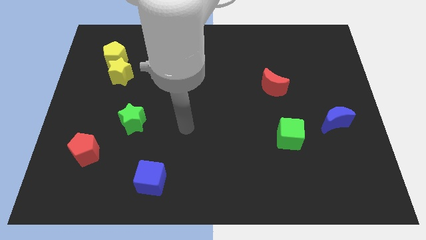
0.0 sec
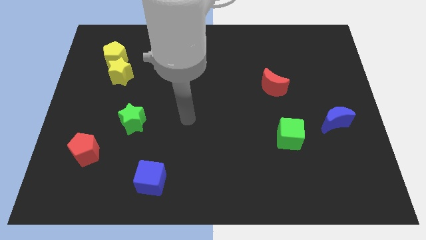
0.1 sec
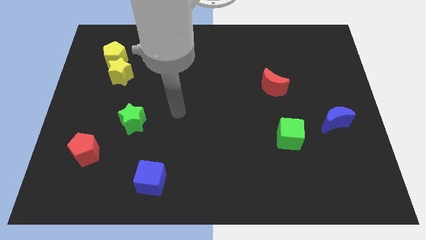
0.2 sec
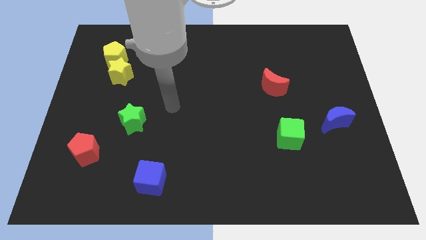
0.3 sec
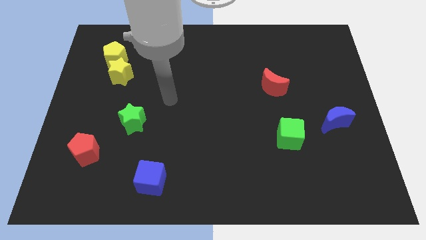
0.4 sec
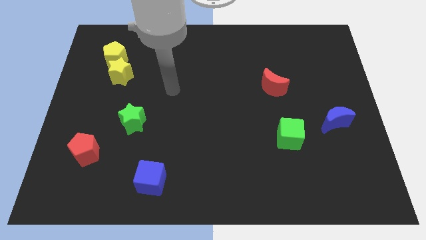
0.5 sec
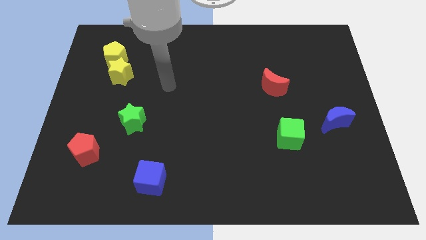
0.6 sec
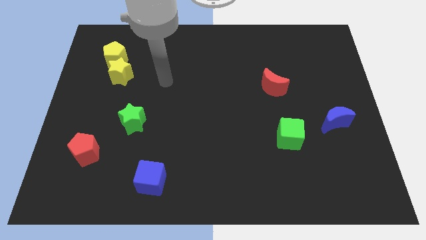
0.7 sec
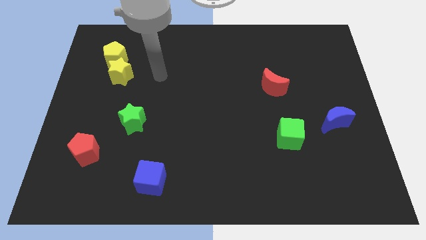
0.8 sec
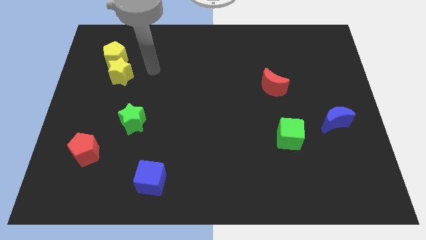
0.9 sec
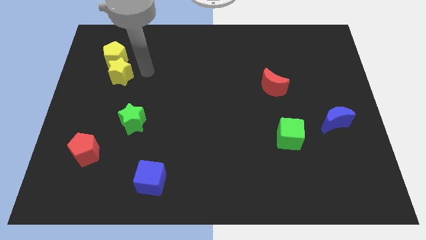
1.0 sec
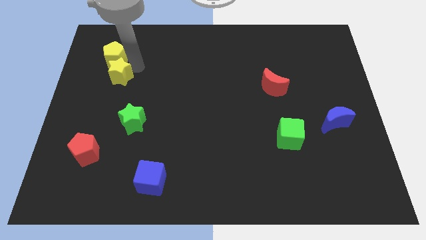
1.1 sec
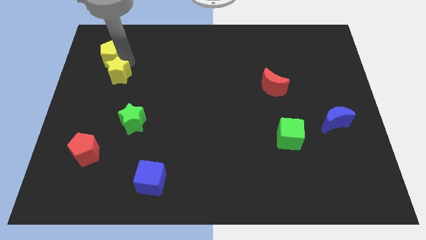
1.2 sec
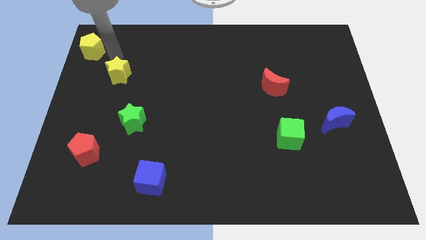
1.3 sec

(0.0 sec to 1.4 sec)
pull the yellow star apart from the yellow pentagon

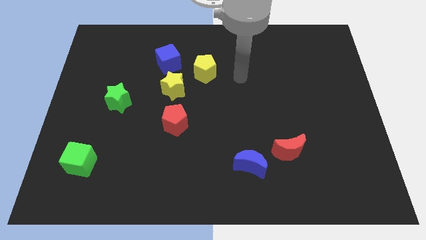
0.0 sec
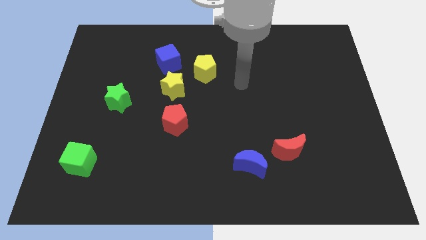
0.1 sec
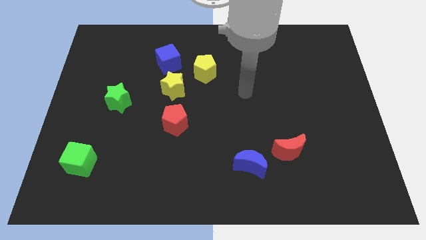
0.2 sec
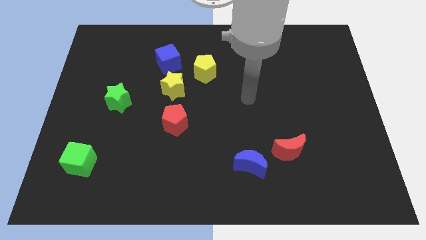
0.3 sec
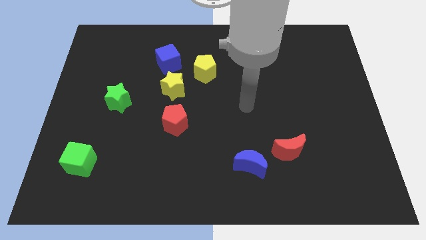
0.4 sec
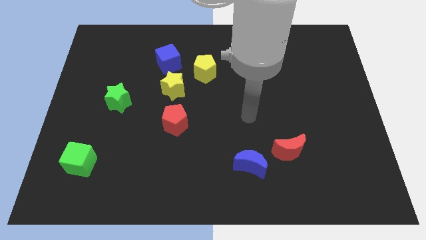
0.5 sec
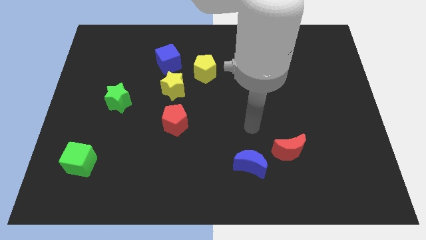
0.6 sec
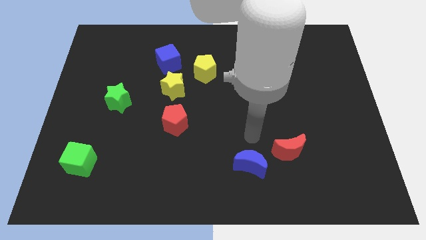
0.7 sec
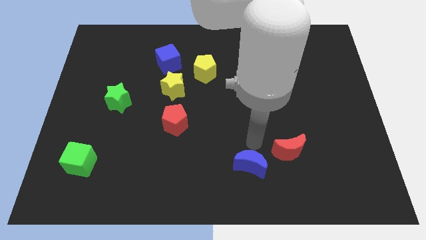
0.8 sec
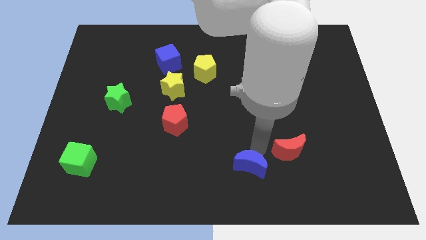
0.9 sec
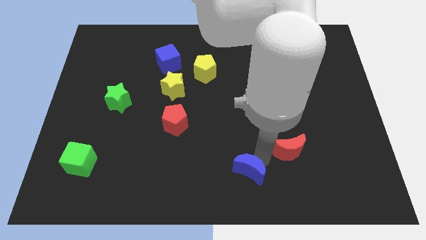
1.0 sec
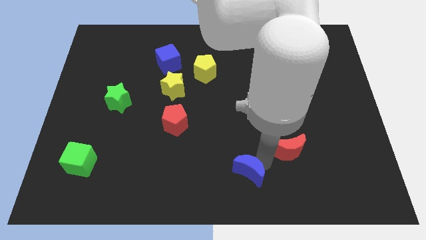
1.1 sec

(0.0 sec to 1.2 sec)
separate the red moon from the blue moon

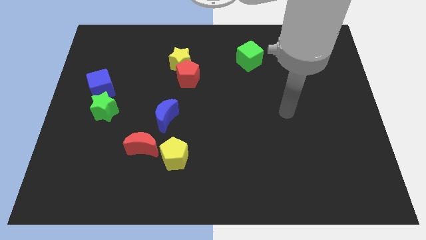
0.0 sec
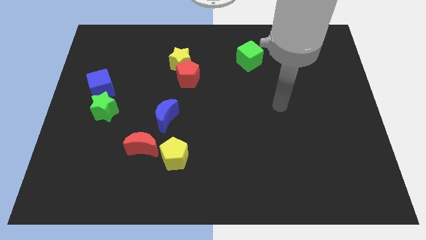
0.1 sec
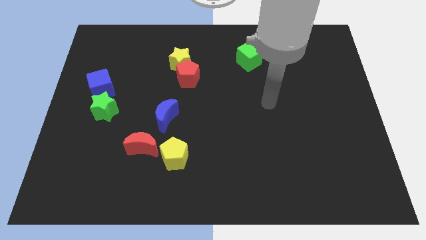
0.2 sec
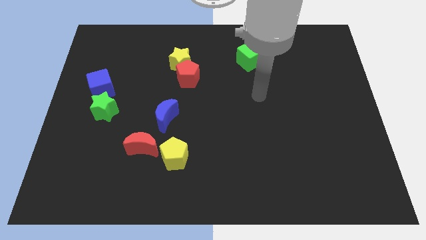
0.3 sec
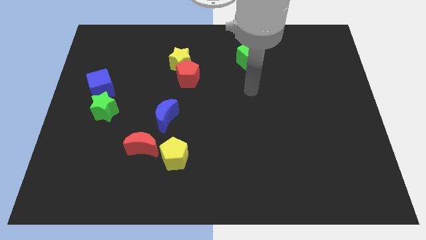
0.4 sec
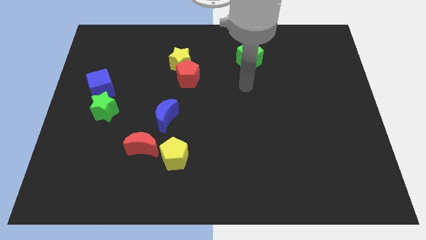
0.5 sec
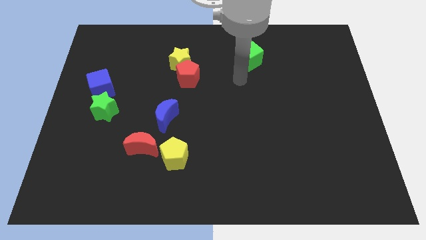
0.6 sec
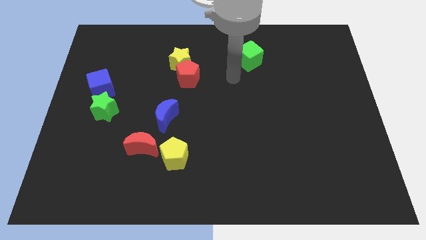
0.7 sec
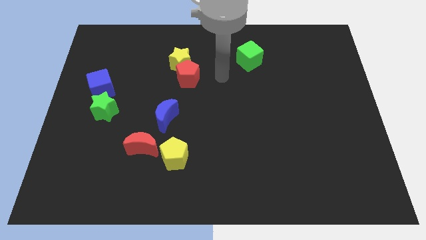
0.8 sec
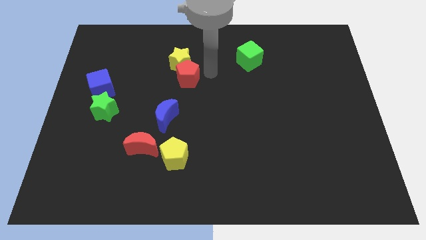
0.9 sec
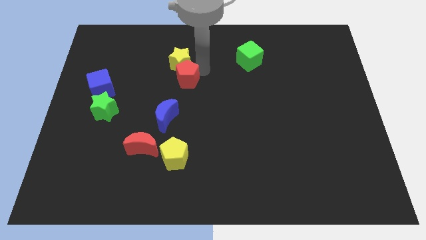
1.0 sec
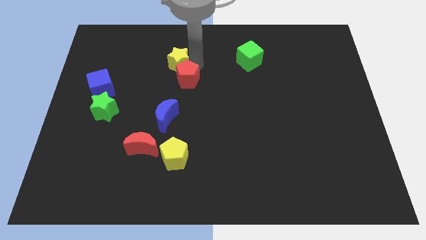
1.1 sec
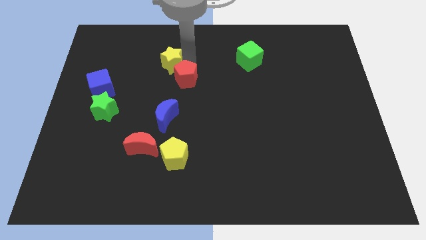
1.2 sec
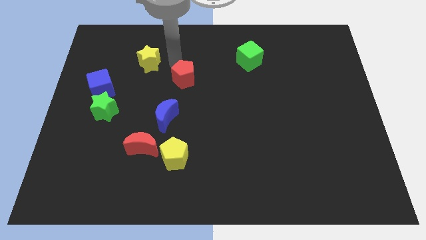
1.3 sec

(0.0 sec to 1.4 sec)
pull the red pentagon apart from the yellow star

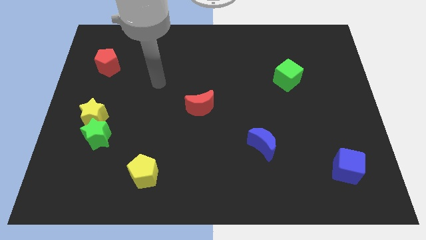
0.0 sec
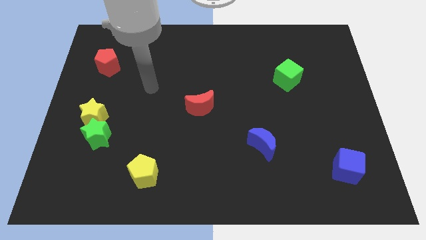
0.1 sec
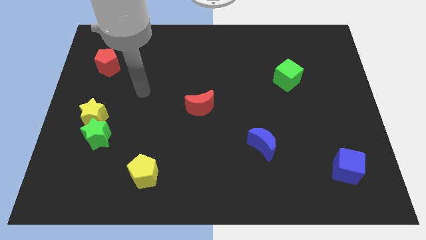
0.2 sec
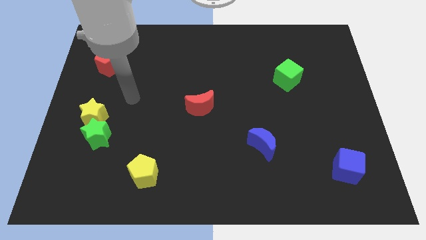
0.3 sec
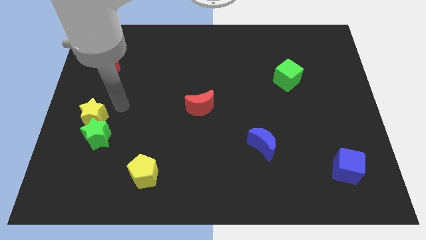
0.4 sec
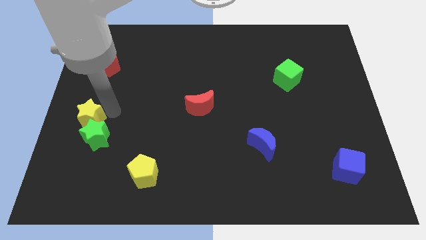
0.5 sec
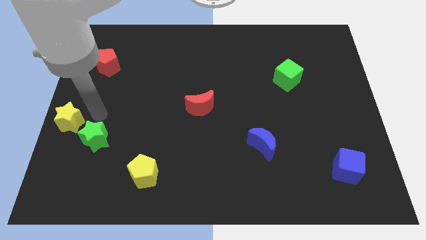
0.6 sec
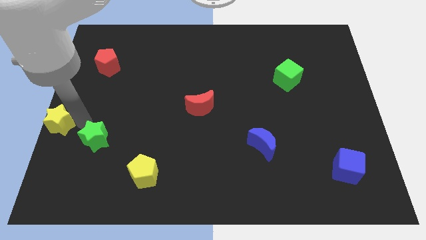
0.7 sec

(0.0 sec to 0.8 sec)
move the green star away from the yellow star

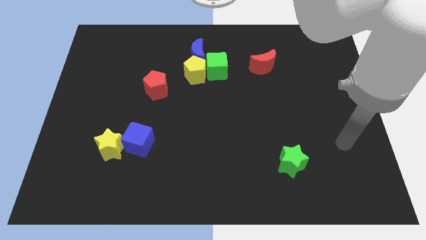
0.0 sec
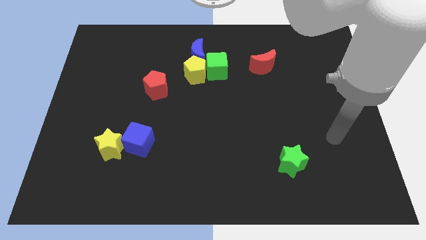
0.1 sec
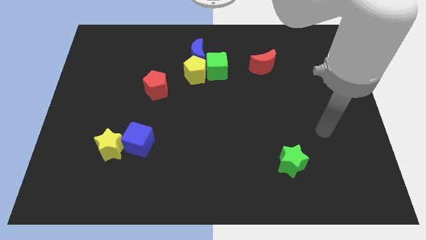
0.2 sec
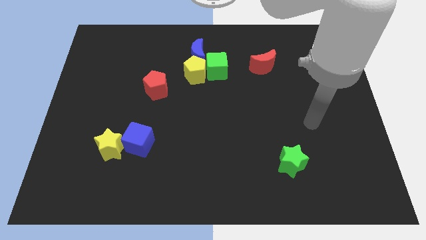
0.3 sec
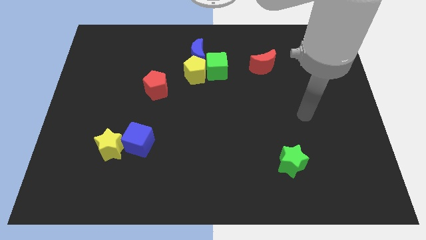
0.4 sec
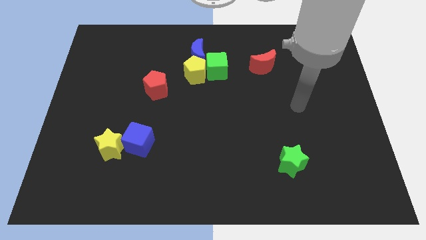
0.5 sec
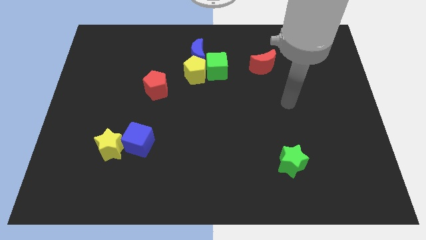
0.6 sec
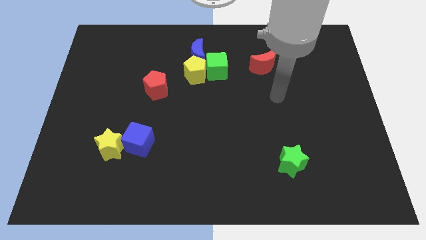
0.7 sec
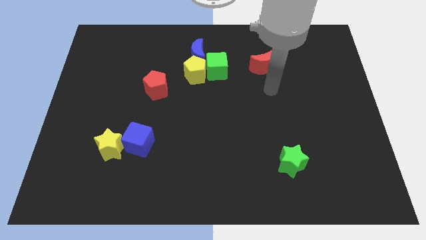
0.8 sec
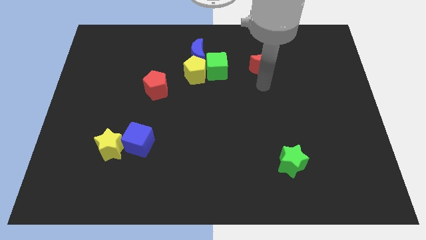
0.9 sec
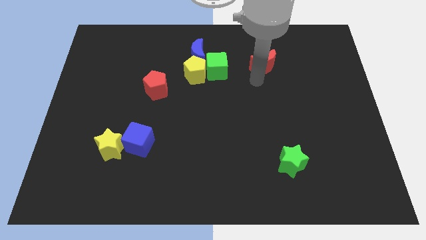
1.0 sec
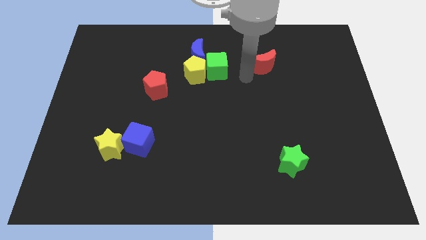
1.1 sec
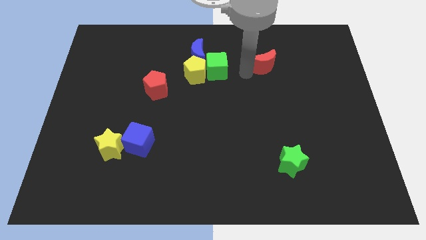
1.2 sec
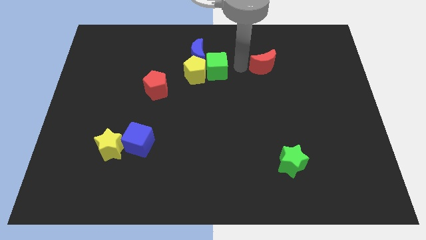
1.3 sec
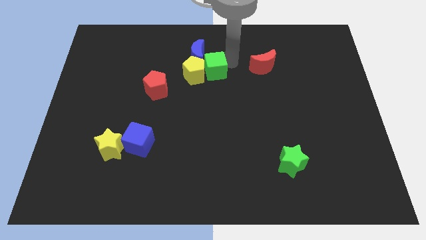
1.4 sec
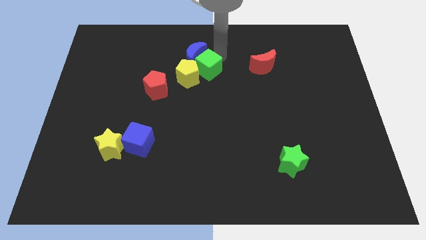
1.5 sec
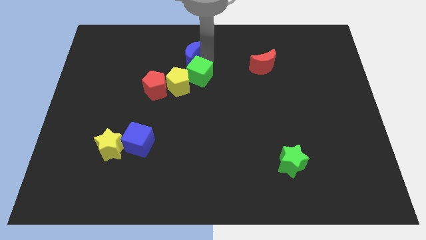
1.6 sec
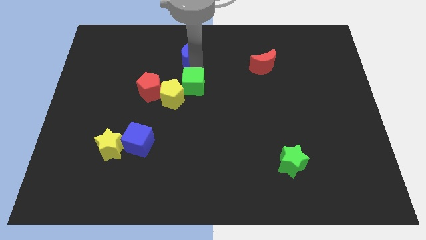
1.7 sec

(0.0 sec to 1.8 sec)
separate the yellow pentagon from the green cube and blue moon

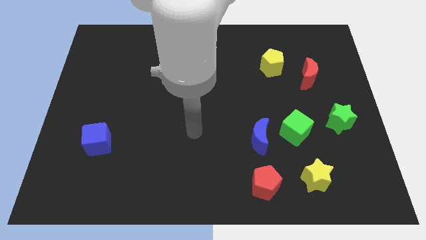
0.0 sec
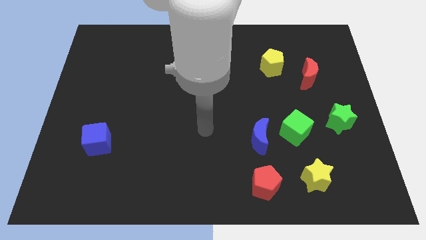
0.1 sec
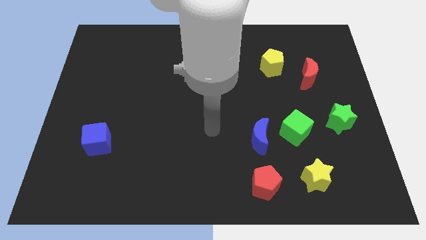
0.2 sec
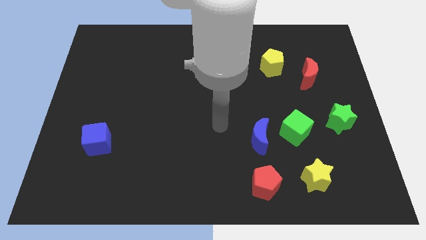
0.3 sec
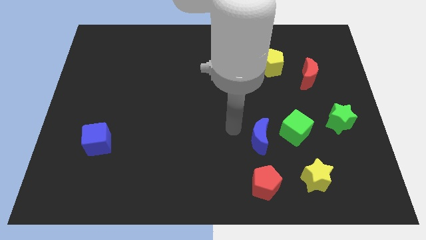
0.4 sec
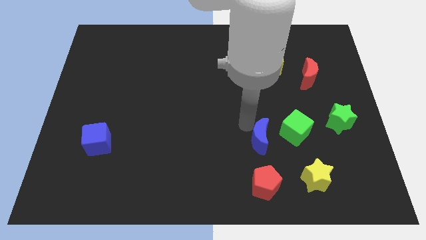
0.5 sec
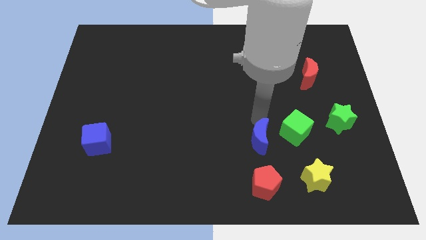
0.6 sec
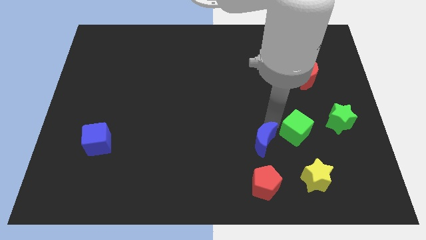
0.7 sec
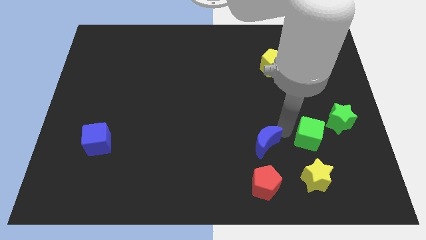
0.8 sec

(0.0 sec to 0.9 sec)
pull the blue moon apart from the green cube

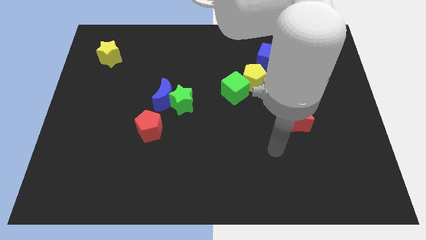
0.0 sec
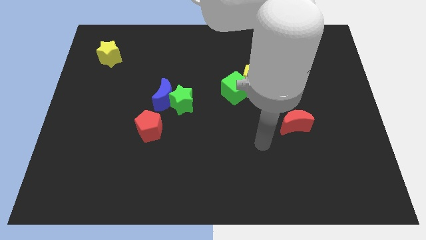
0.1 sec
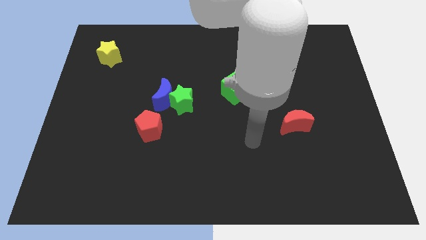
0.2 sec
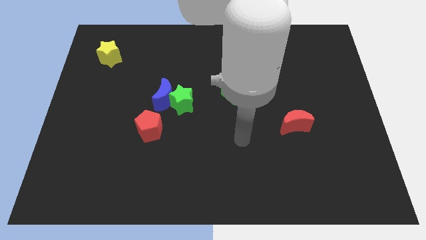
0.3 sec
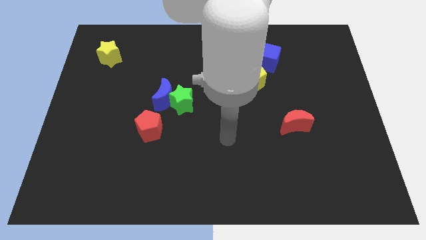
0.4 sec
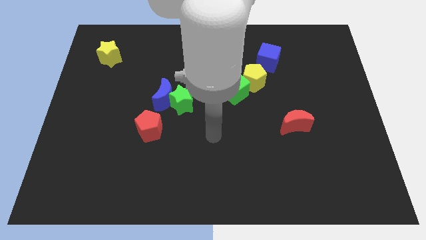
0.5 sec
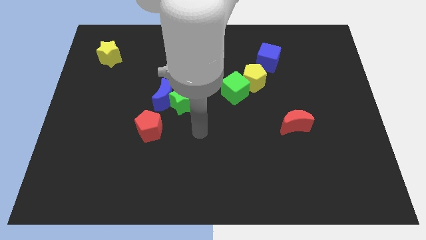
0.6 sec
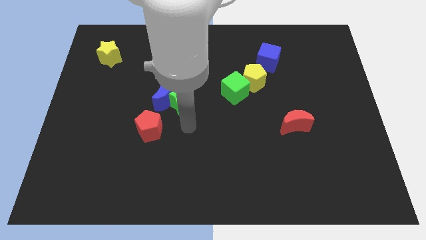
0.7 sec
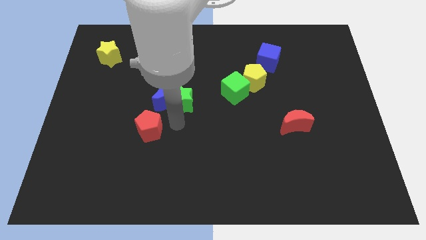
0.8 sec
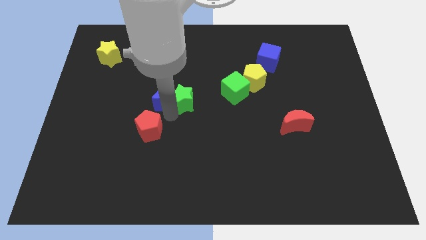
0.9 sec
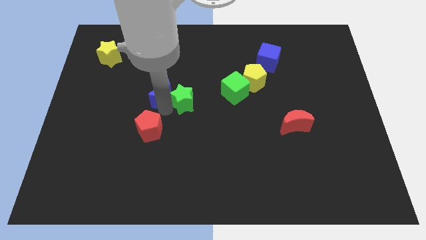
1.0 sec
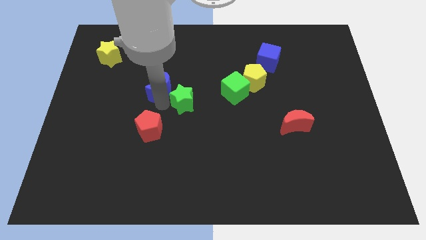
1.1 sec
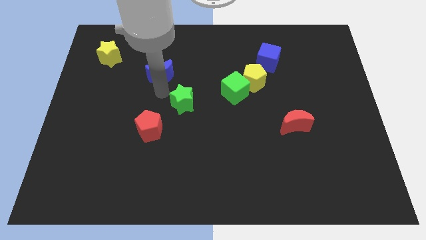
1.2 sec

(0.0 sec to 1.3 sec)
pull the green star apart from the blue moon

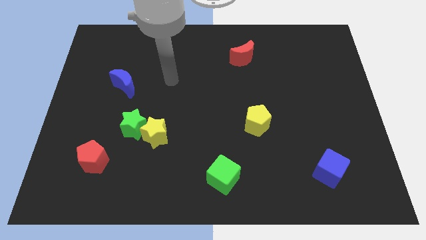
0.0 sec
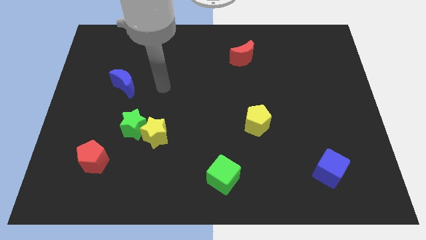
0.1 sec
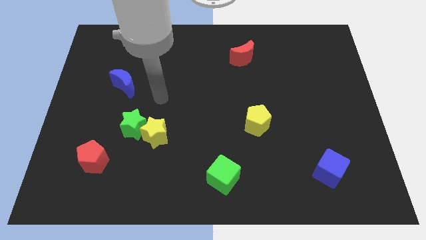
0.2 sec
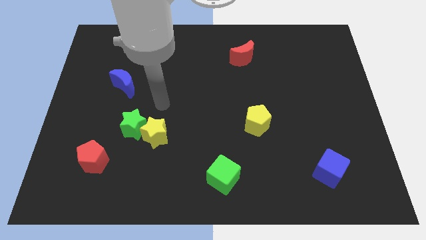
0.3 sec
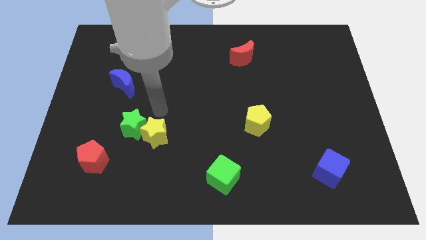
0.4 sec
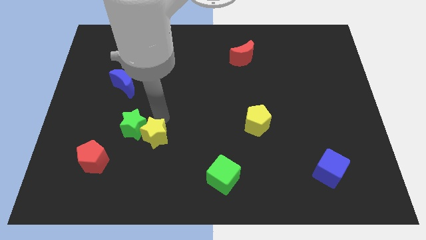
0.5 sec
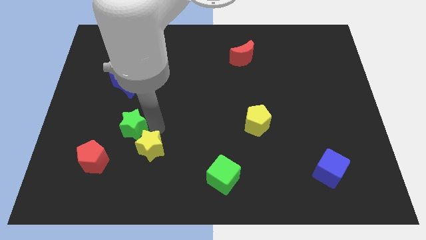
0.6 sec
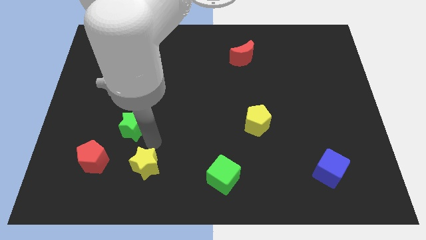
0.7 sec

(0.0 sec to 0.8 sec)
pull the green star apart from the yellow star
